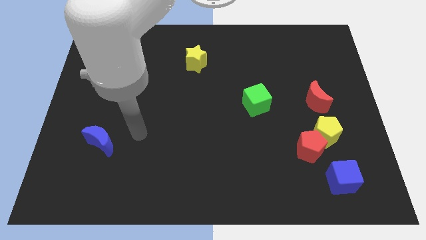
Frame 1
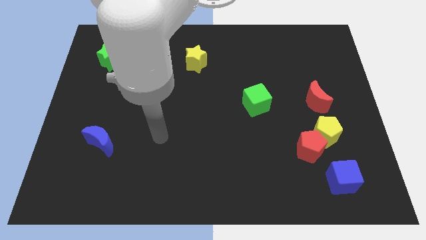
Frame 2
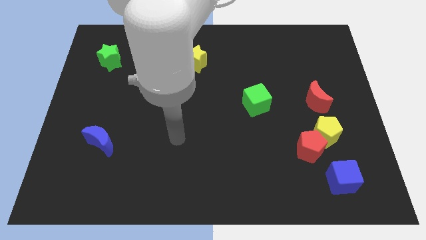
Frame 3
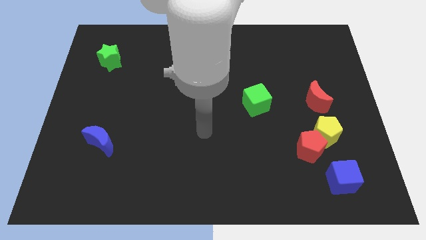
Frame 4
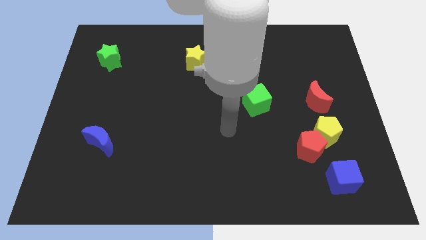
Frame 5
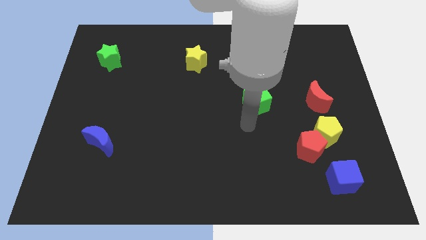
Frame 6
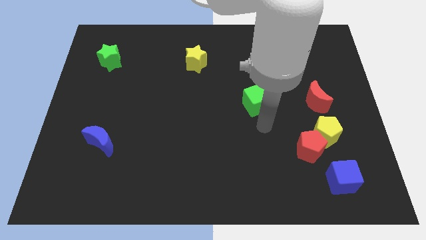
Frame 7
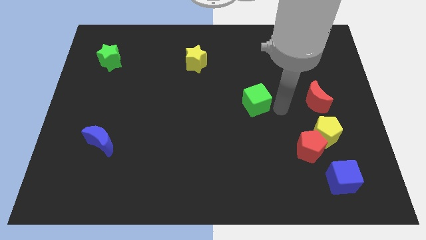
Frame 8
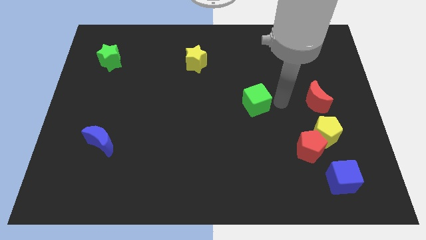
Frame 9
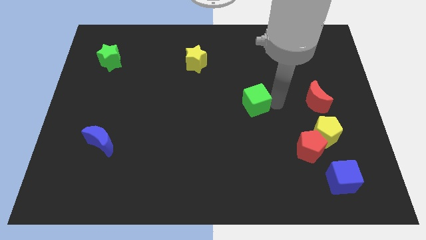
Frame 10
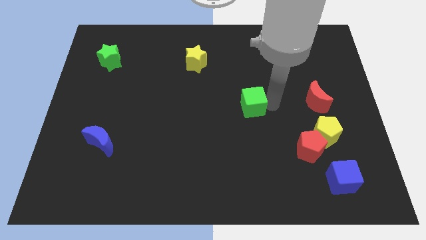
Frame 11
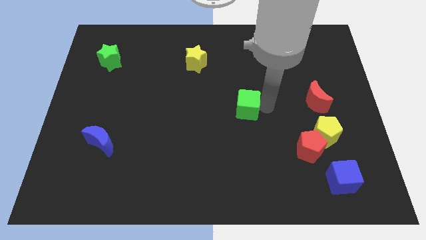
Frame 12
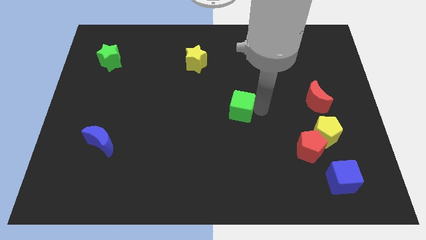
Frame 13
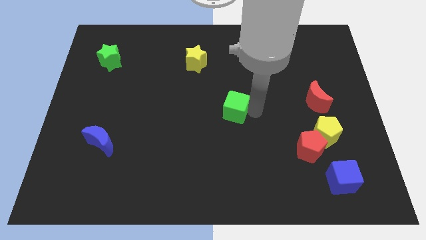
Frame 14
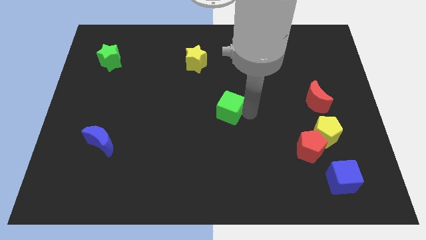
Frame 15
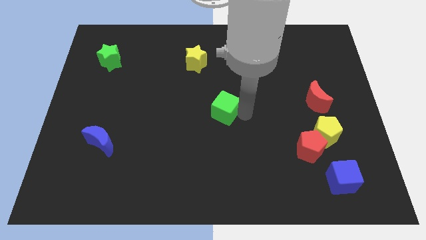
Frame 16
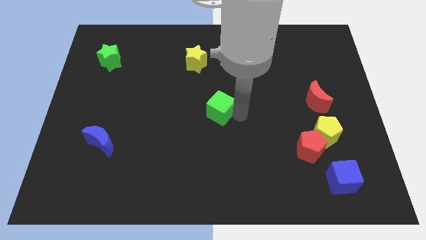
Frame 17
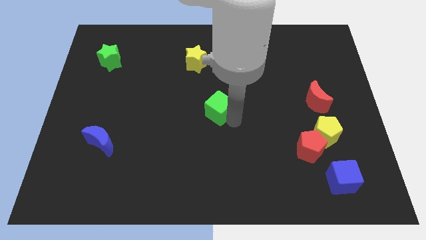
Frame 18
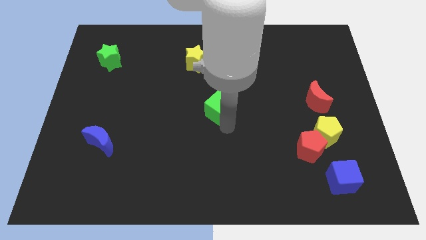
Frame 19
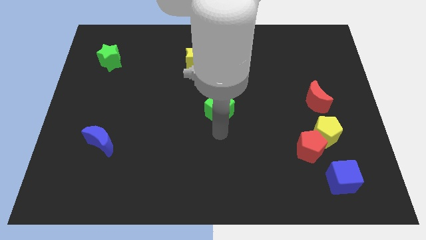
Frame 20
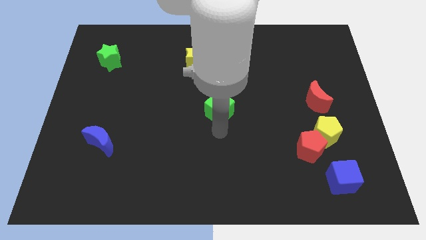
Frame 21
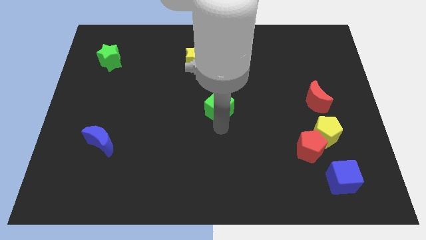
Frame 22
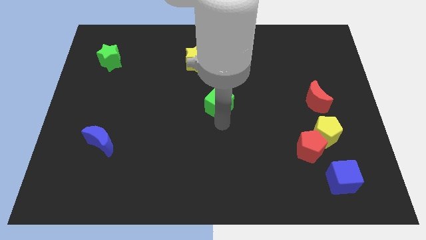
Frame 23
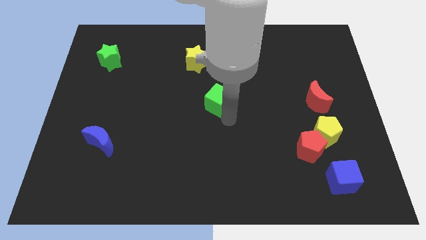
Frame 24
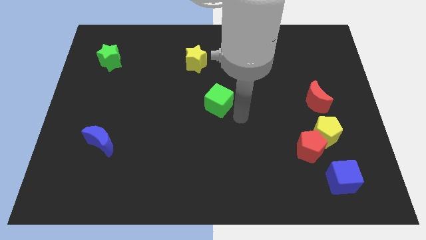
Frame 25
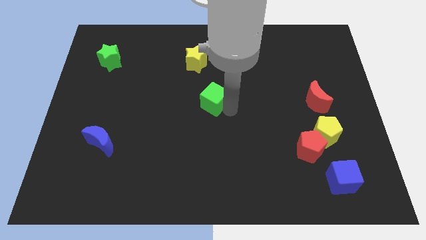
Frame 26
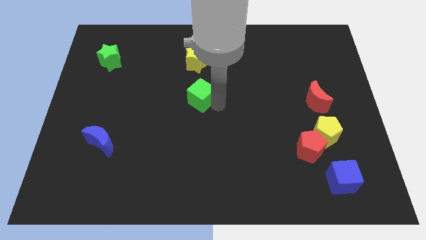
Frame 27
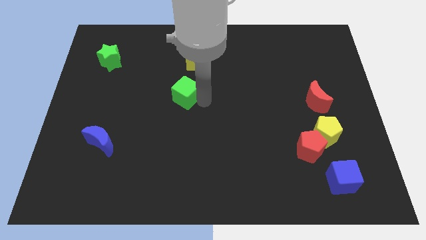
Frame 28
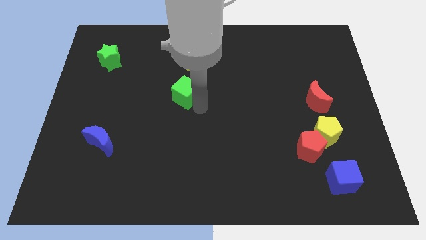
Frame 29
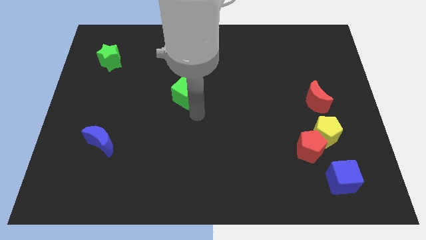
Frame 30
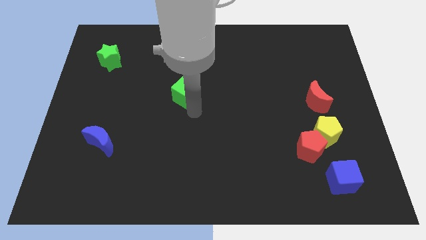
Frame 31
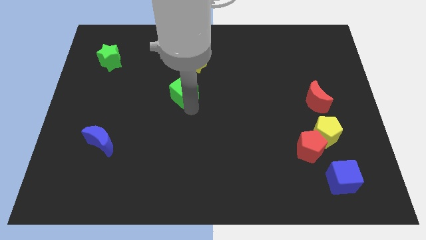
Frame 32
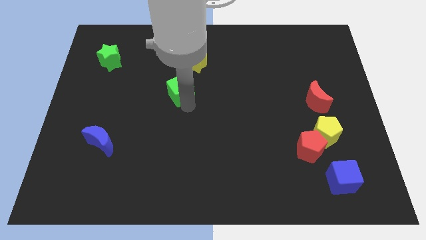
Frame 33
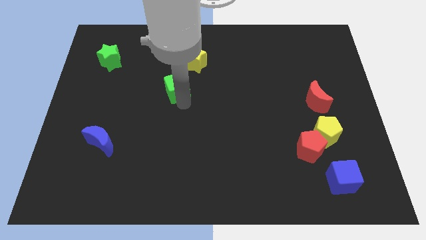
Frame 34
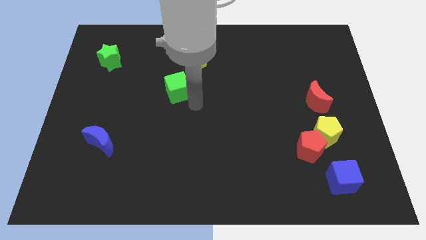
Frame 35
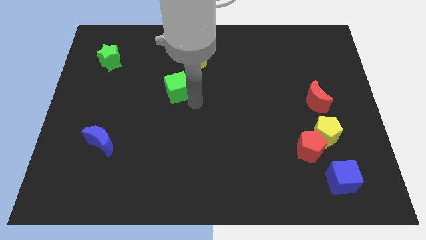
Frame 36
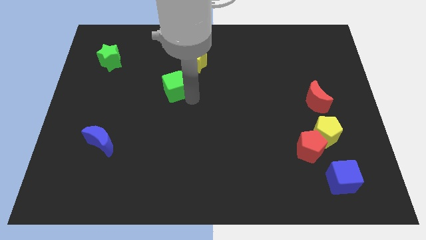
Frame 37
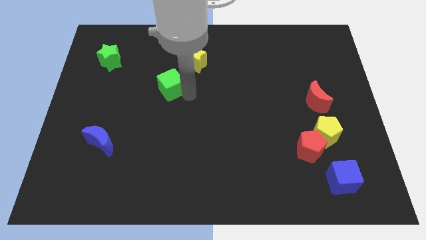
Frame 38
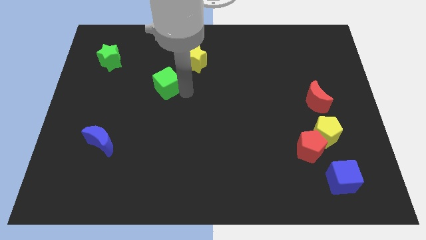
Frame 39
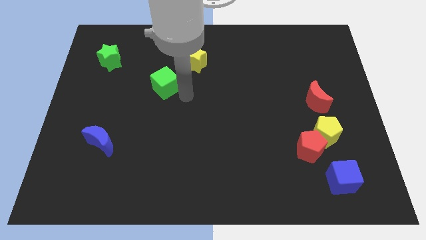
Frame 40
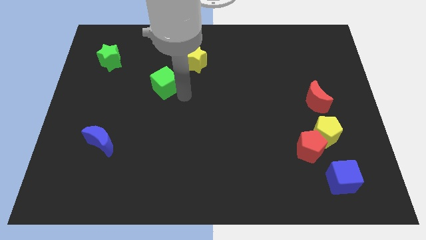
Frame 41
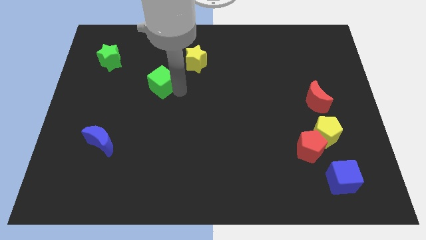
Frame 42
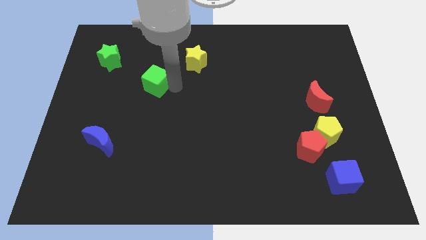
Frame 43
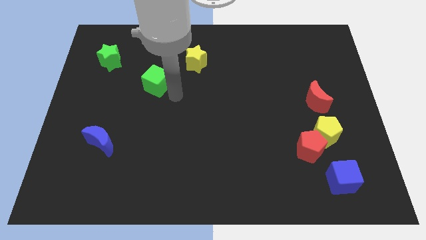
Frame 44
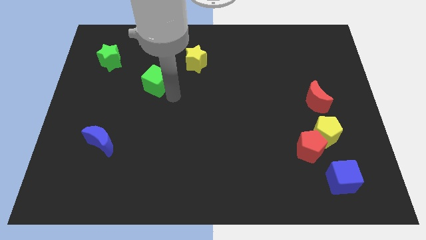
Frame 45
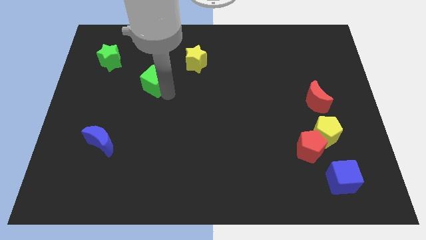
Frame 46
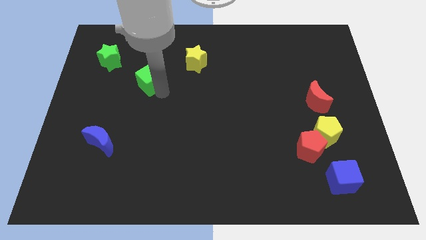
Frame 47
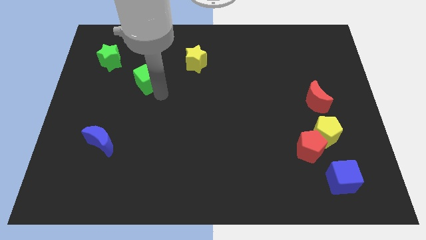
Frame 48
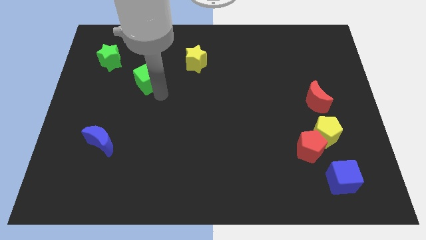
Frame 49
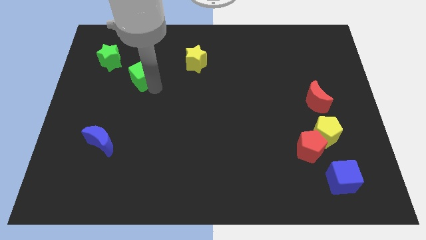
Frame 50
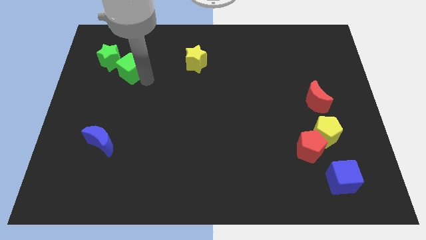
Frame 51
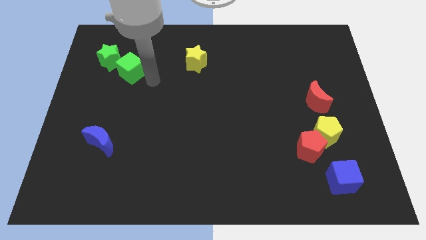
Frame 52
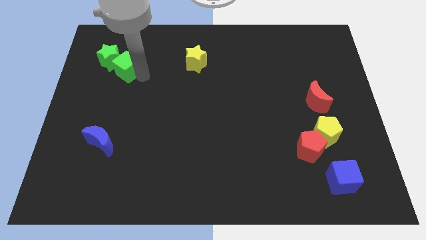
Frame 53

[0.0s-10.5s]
put the green cube towards the green star

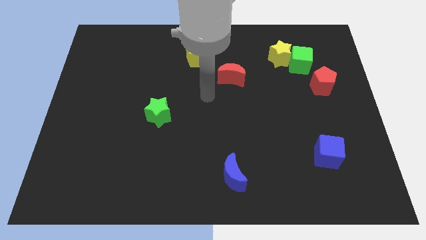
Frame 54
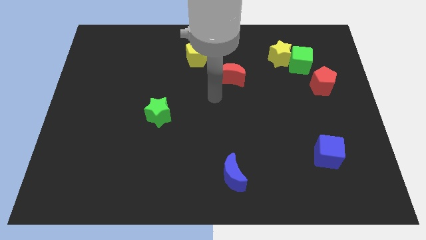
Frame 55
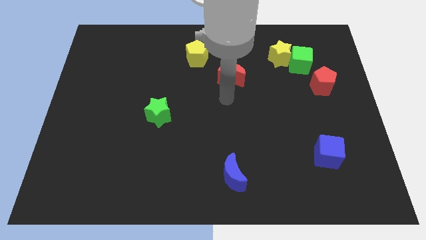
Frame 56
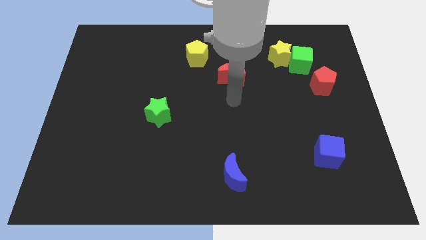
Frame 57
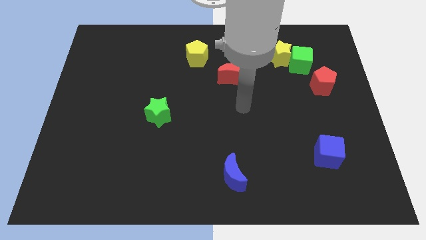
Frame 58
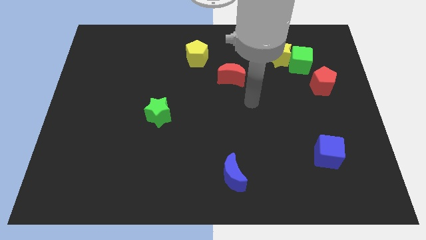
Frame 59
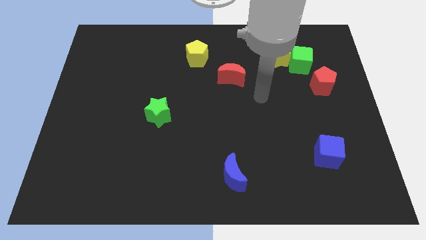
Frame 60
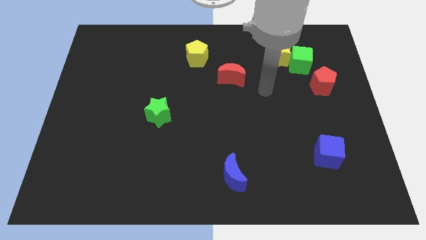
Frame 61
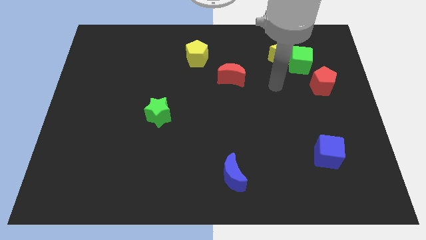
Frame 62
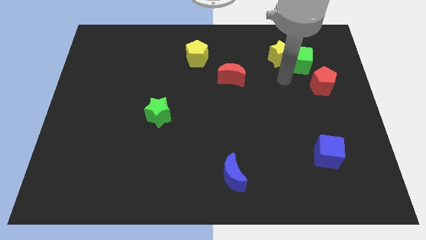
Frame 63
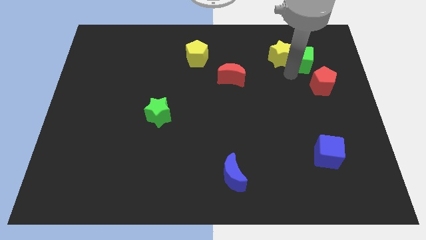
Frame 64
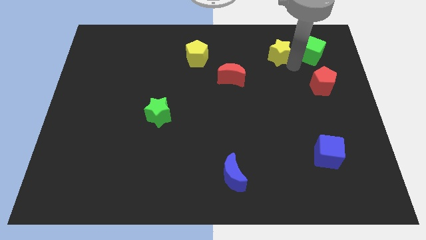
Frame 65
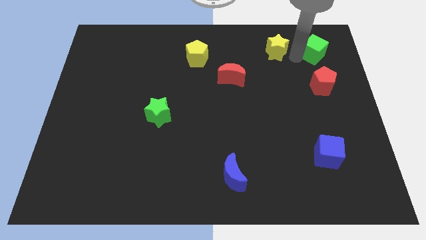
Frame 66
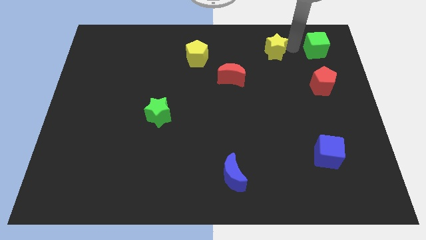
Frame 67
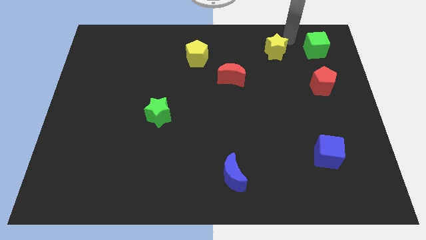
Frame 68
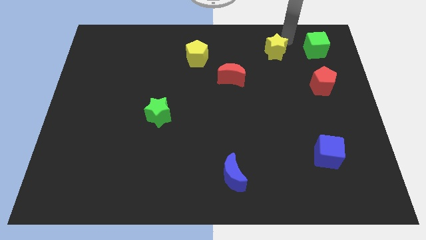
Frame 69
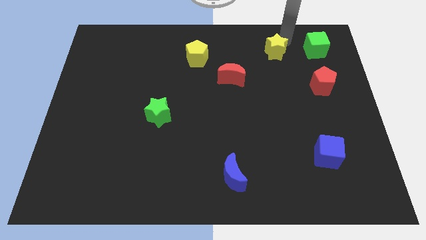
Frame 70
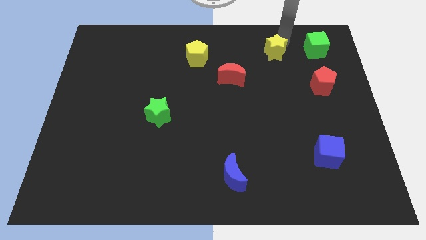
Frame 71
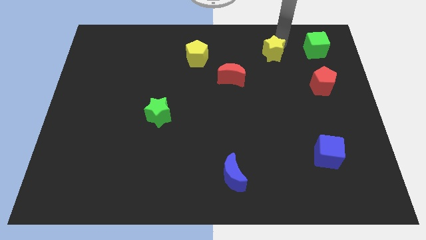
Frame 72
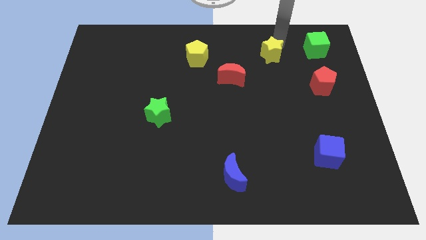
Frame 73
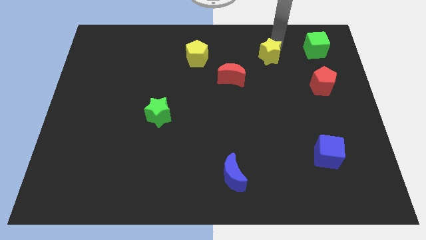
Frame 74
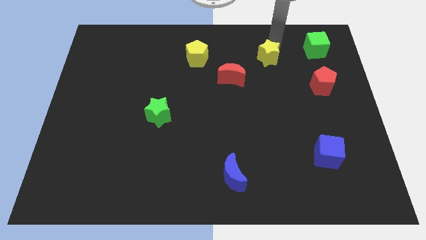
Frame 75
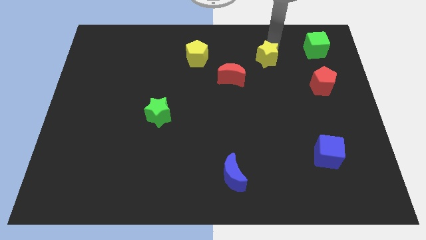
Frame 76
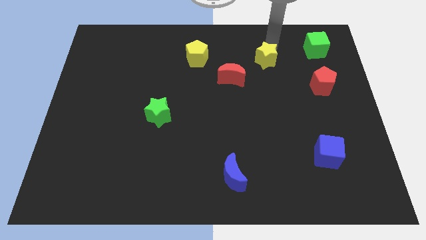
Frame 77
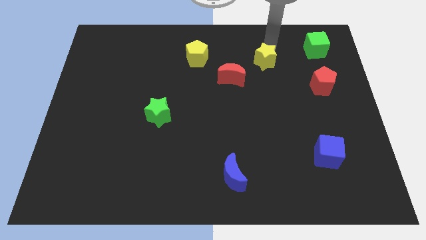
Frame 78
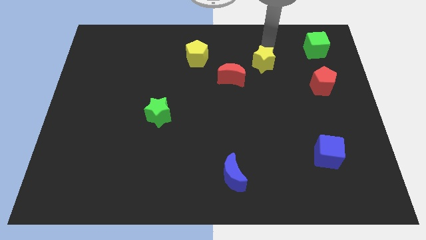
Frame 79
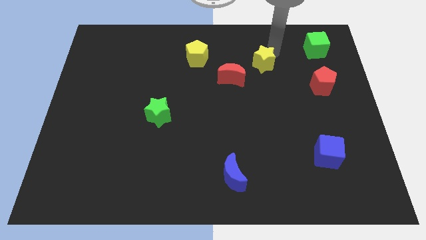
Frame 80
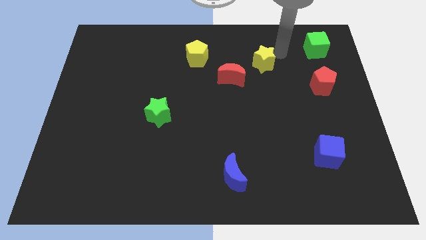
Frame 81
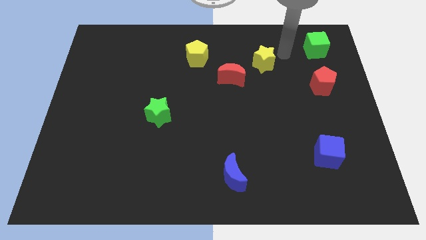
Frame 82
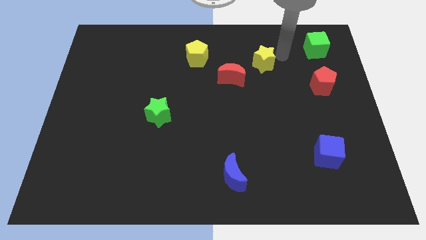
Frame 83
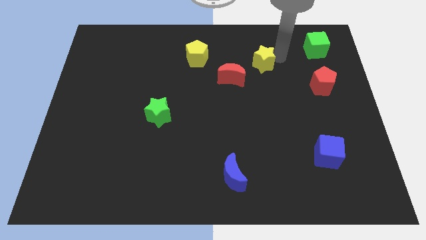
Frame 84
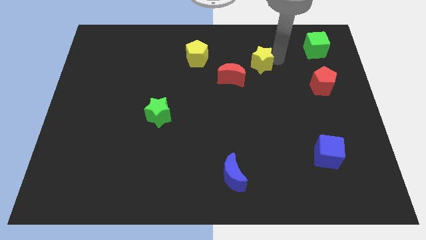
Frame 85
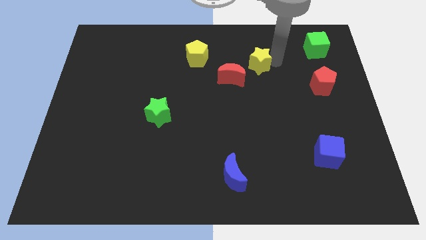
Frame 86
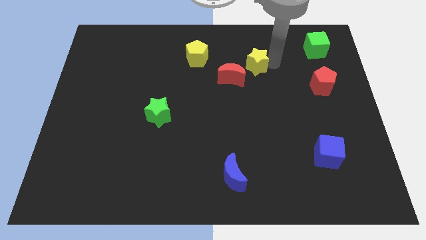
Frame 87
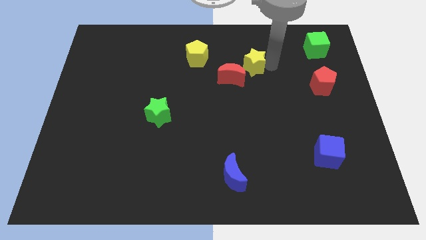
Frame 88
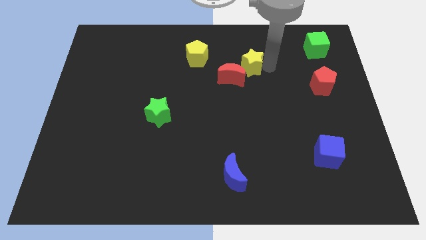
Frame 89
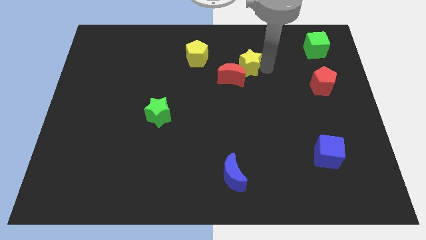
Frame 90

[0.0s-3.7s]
move the yellow star close to the red moon
